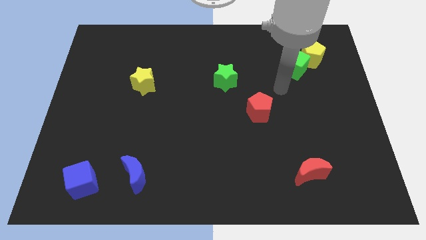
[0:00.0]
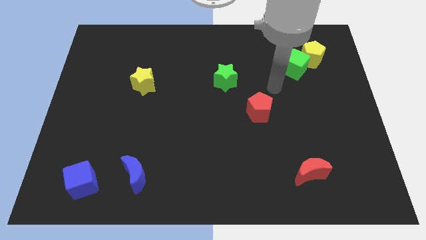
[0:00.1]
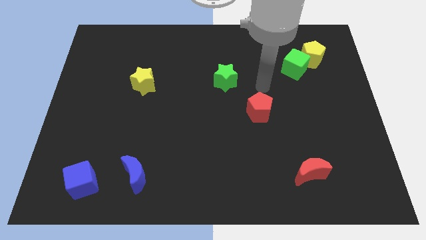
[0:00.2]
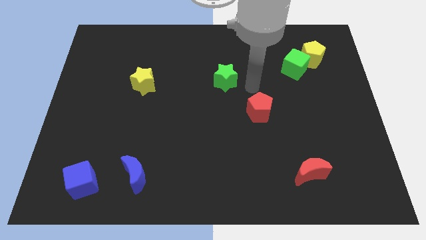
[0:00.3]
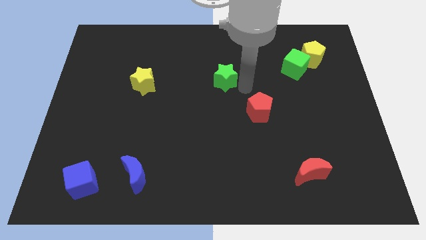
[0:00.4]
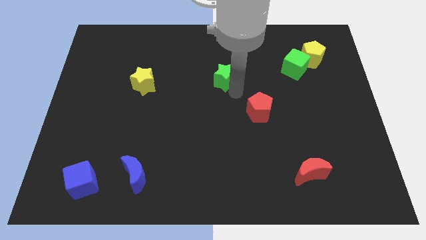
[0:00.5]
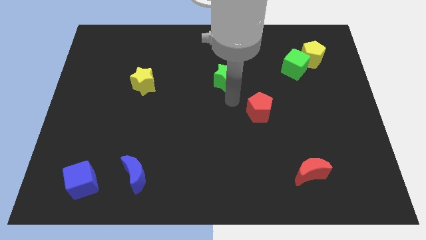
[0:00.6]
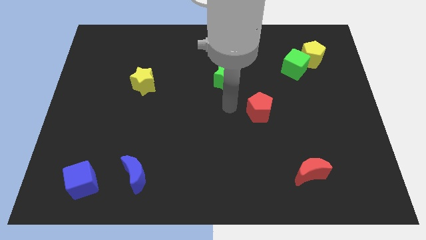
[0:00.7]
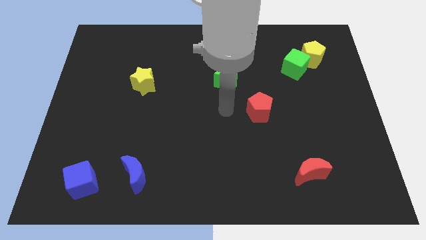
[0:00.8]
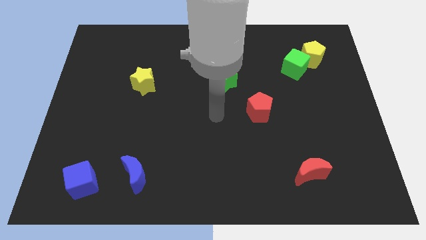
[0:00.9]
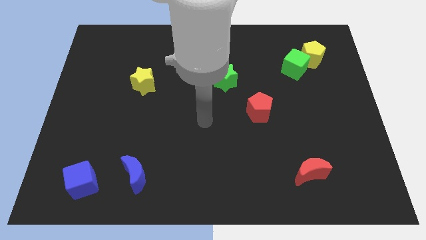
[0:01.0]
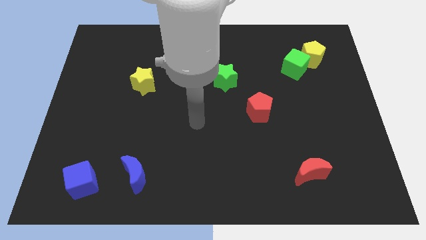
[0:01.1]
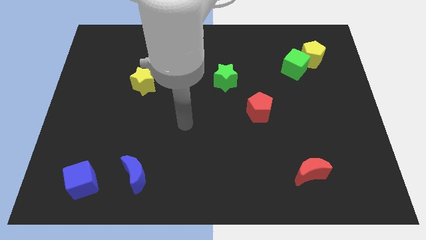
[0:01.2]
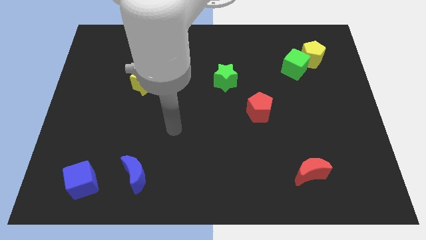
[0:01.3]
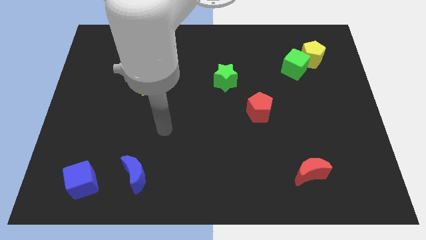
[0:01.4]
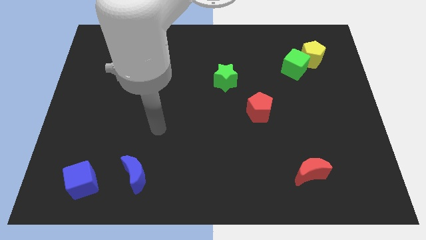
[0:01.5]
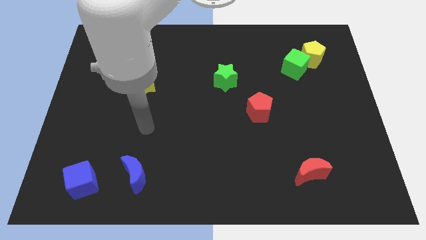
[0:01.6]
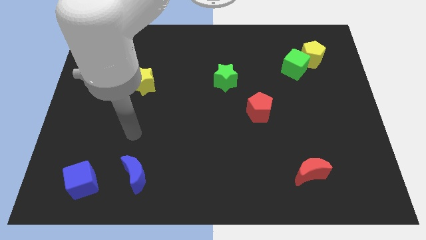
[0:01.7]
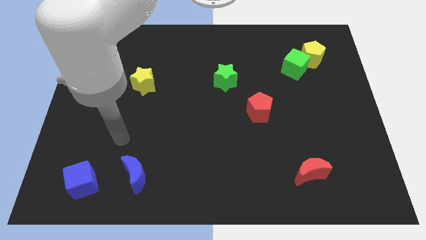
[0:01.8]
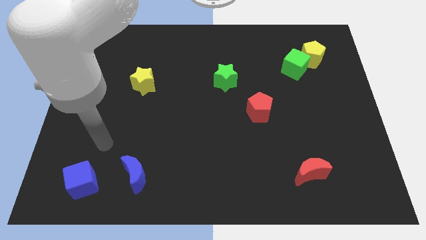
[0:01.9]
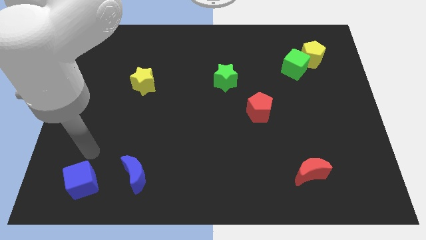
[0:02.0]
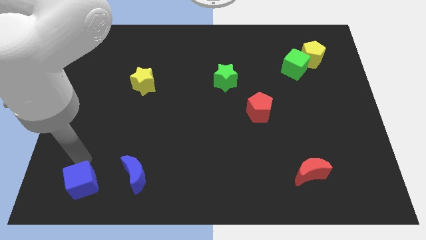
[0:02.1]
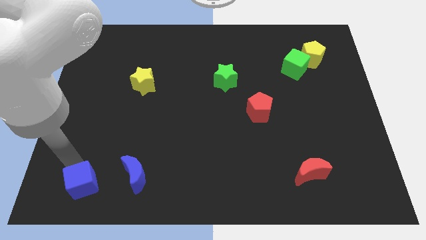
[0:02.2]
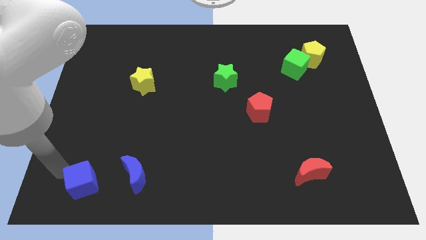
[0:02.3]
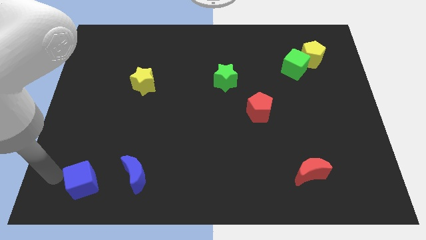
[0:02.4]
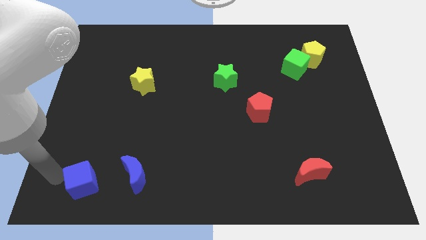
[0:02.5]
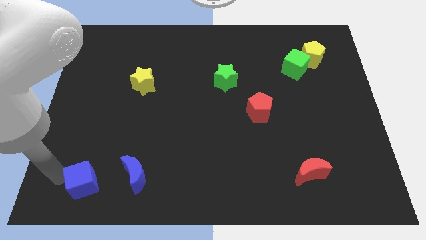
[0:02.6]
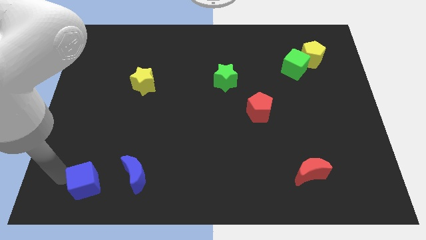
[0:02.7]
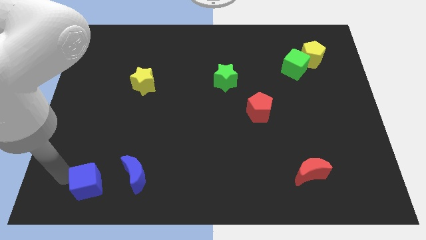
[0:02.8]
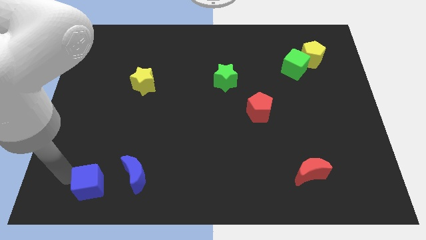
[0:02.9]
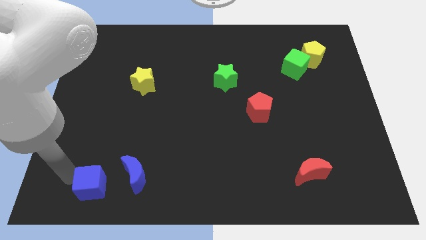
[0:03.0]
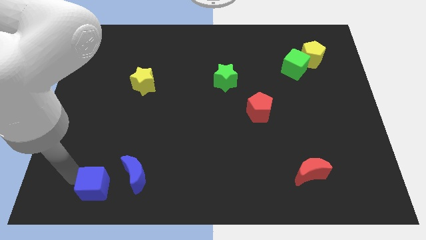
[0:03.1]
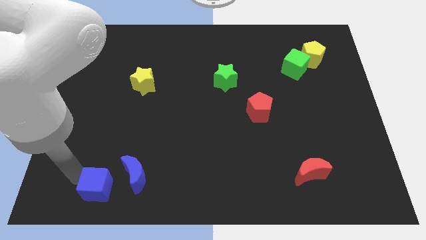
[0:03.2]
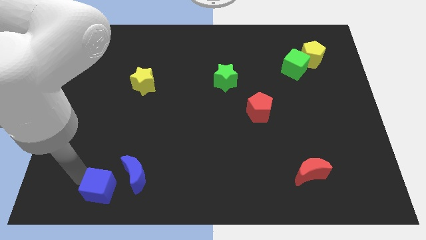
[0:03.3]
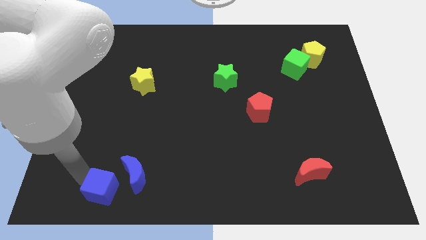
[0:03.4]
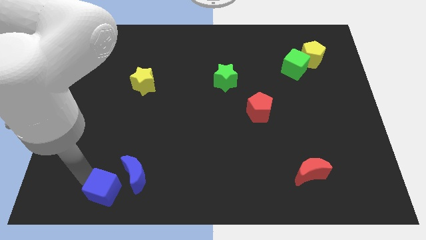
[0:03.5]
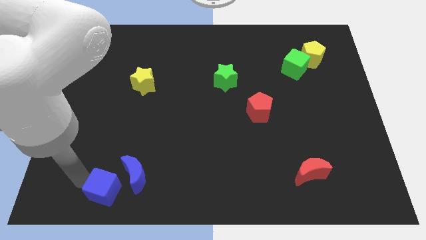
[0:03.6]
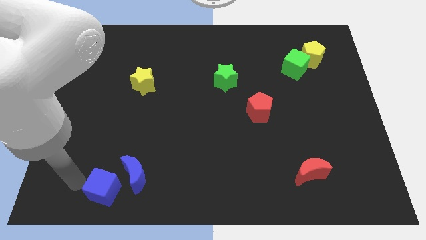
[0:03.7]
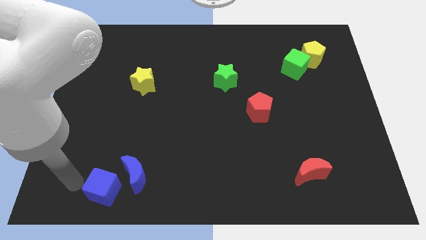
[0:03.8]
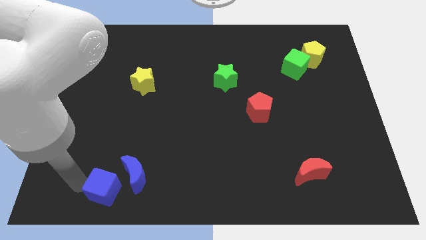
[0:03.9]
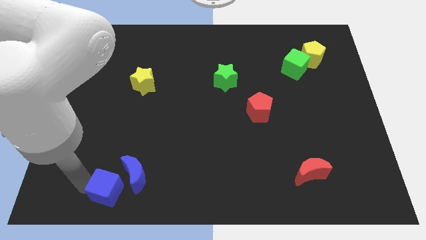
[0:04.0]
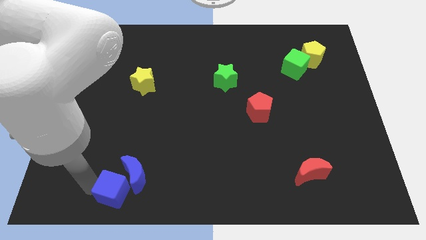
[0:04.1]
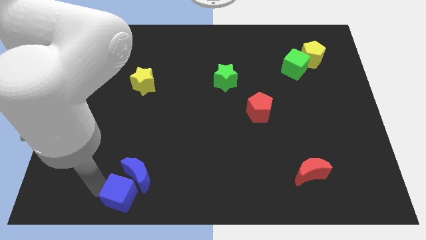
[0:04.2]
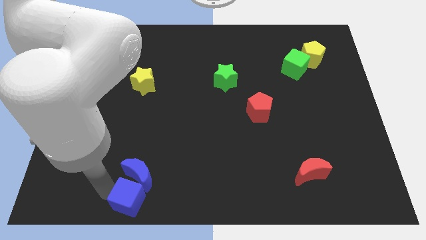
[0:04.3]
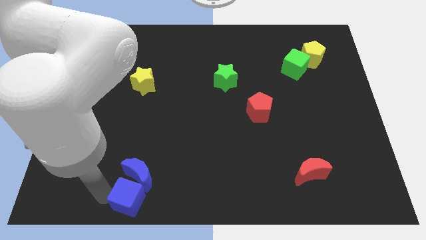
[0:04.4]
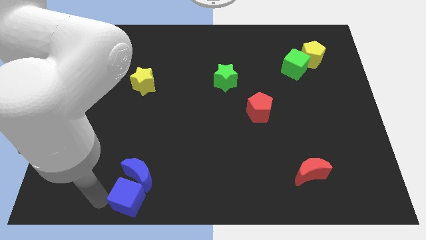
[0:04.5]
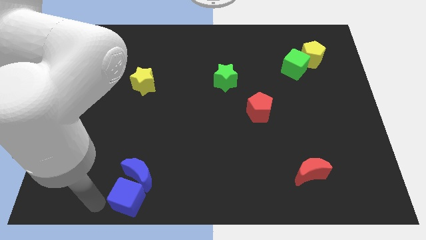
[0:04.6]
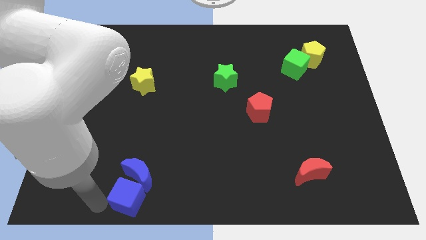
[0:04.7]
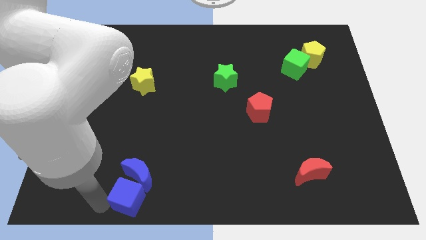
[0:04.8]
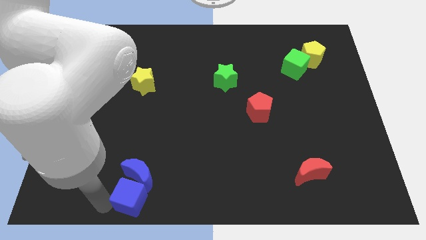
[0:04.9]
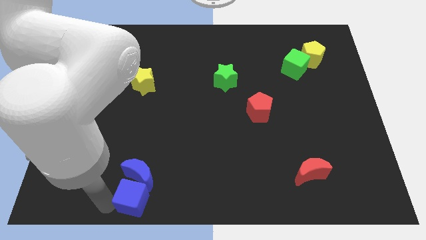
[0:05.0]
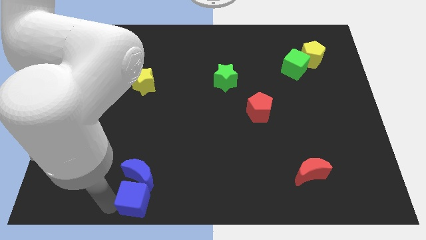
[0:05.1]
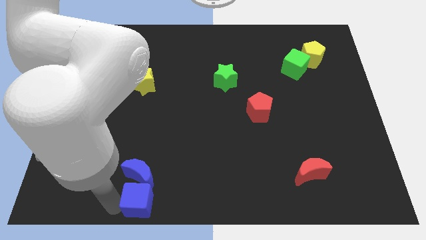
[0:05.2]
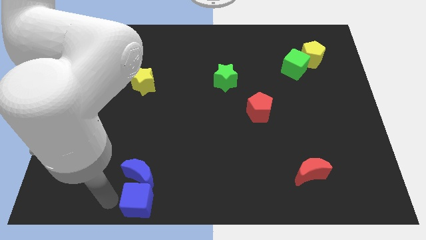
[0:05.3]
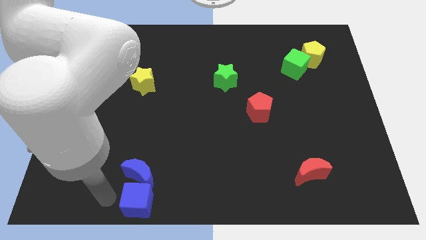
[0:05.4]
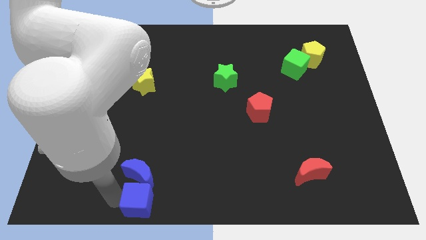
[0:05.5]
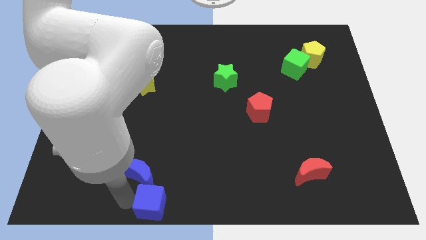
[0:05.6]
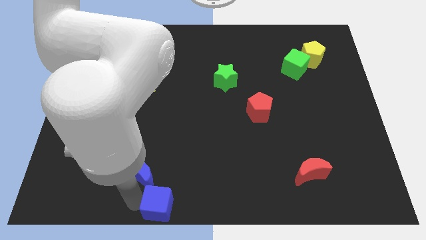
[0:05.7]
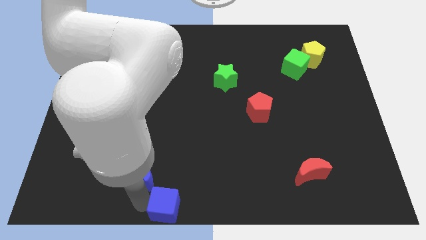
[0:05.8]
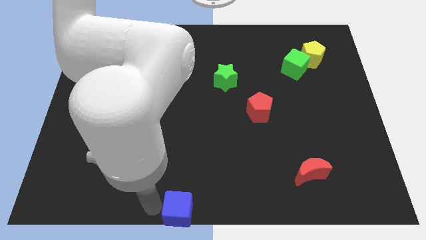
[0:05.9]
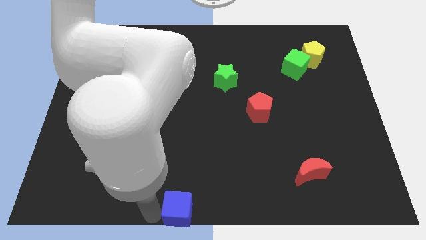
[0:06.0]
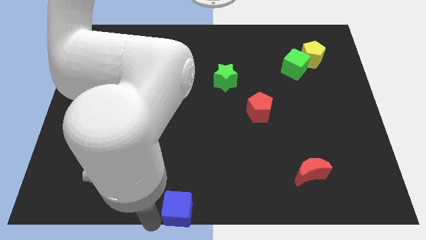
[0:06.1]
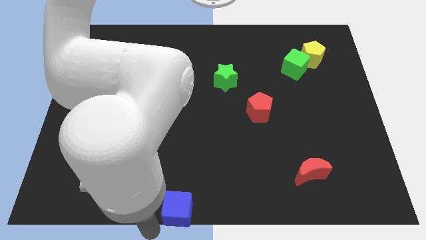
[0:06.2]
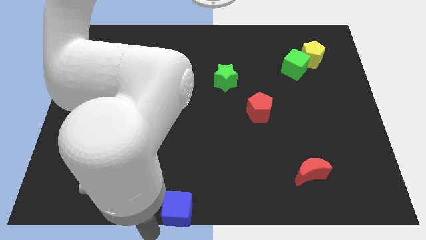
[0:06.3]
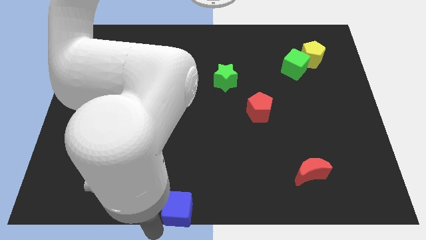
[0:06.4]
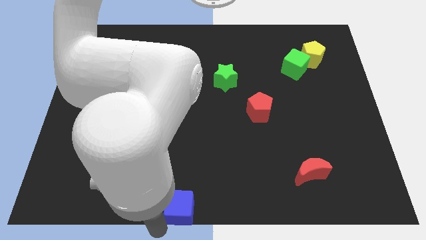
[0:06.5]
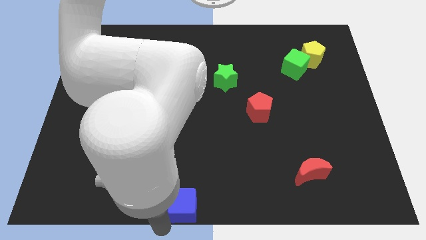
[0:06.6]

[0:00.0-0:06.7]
slide the blue cube right

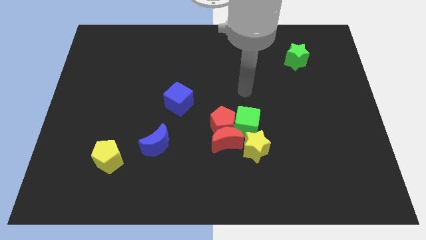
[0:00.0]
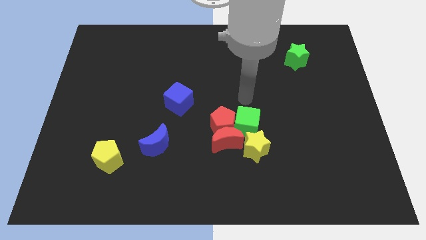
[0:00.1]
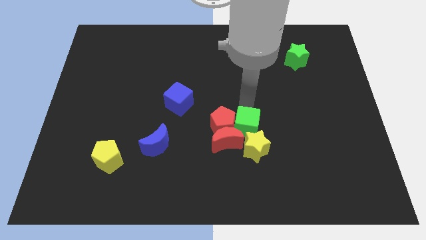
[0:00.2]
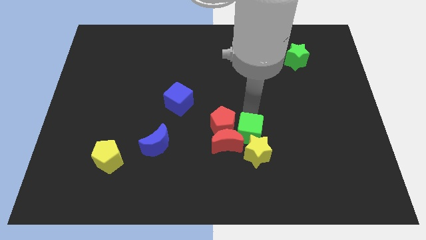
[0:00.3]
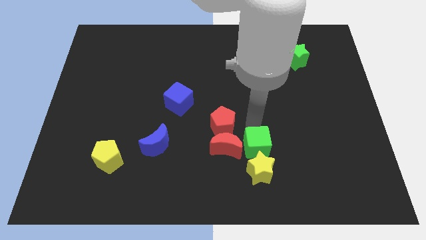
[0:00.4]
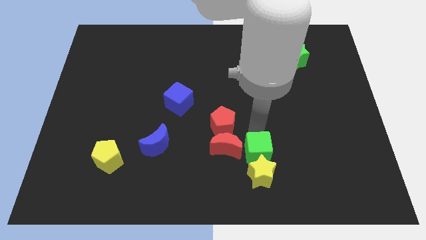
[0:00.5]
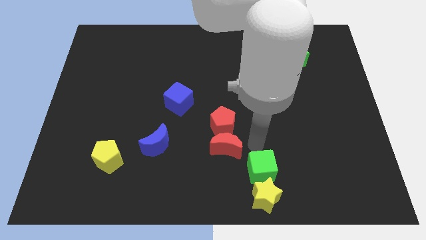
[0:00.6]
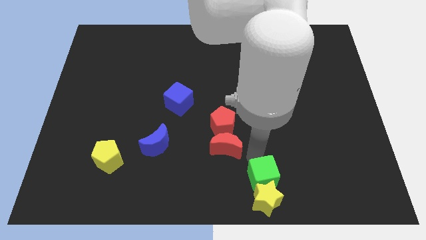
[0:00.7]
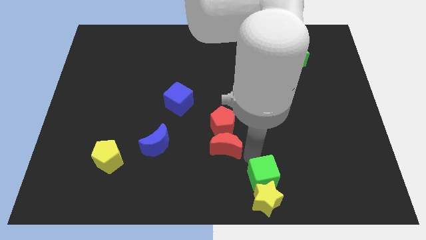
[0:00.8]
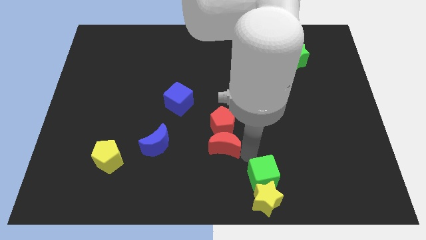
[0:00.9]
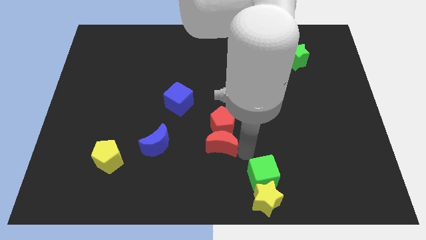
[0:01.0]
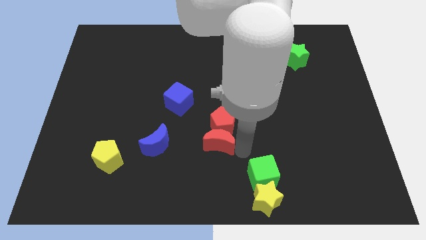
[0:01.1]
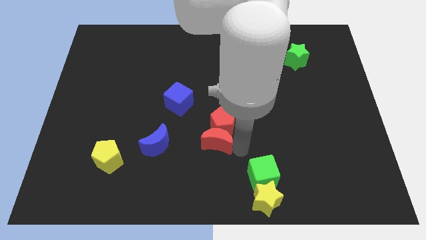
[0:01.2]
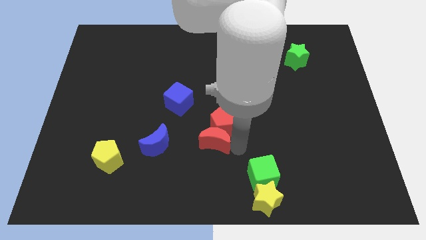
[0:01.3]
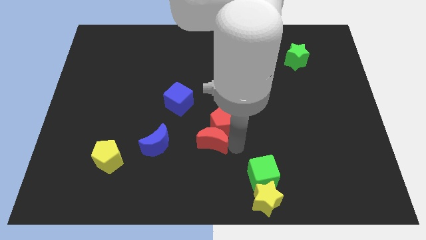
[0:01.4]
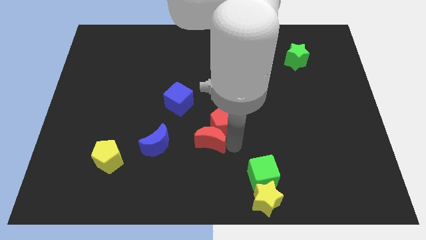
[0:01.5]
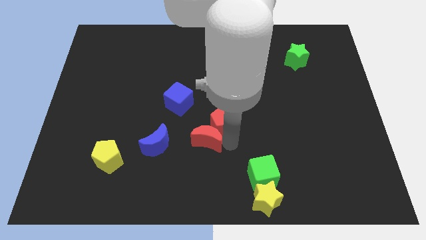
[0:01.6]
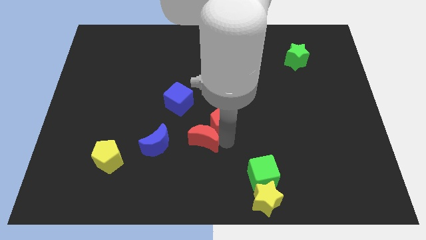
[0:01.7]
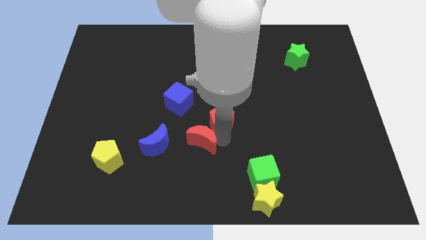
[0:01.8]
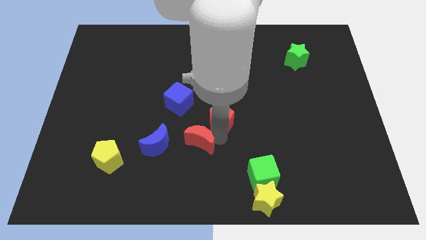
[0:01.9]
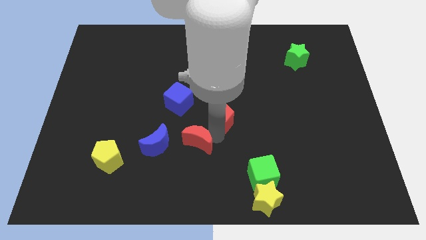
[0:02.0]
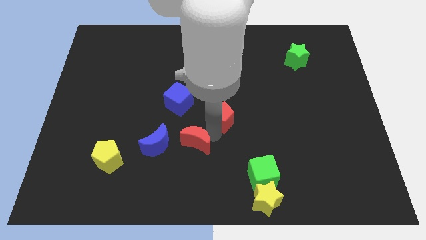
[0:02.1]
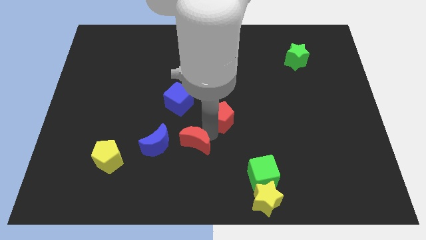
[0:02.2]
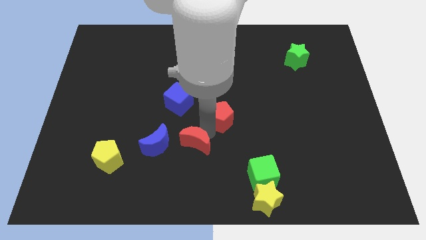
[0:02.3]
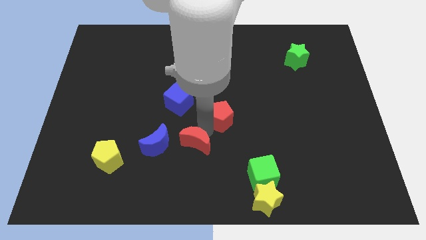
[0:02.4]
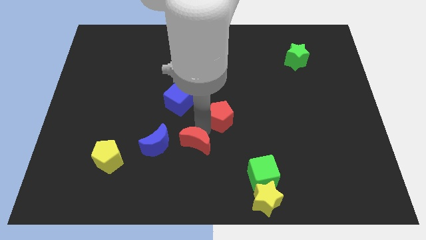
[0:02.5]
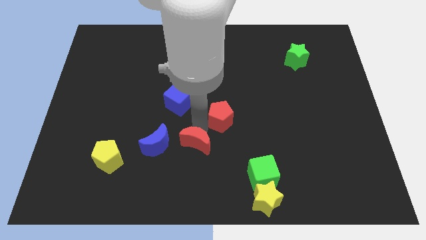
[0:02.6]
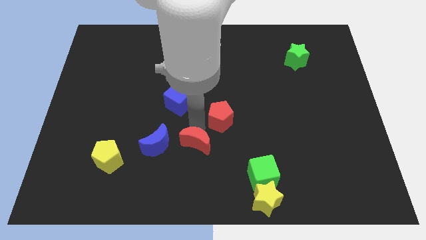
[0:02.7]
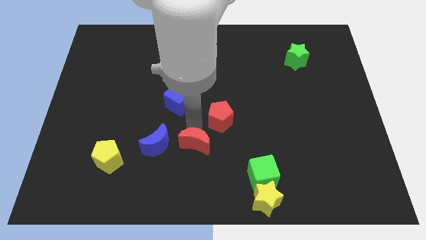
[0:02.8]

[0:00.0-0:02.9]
move the red moon a bit to the left
